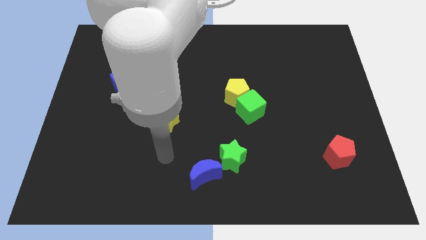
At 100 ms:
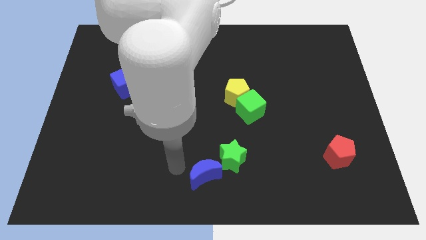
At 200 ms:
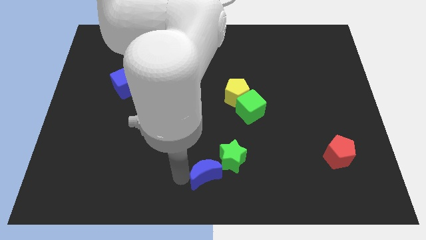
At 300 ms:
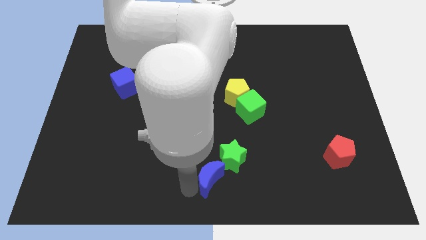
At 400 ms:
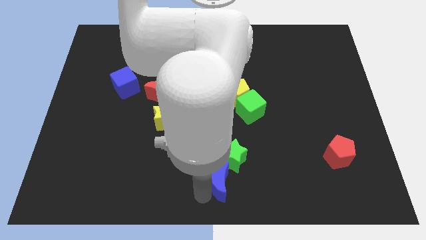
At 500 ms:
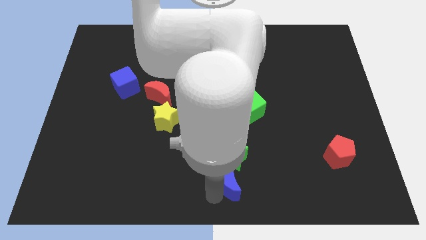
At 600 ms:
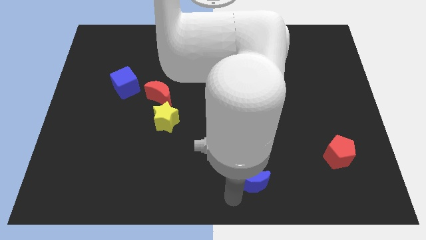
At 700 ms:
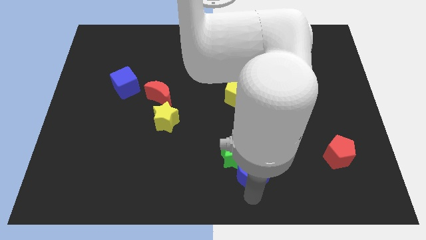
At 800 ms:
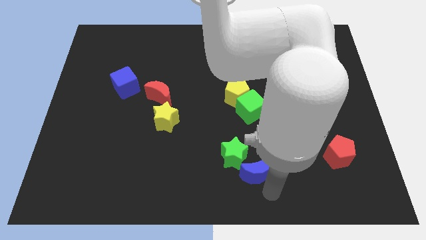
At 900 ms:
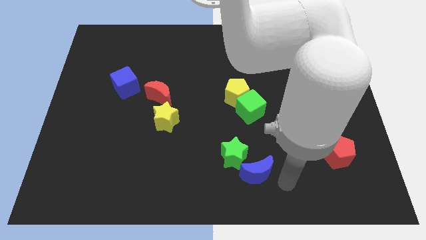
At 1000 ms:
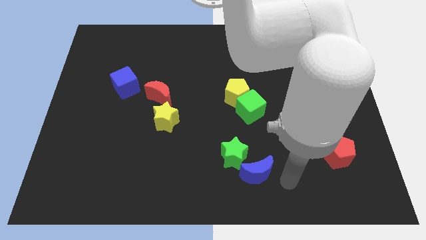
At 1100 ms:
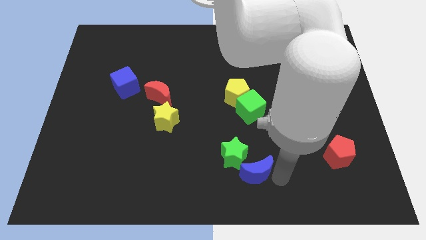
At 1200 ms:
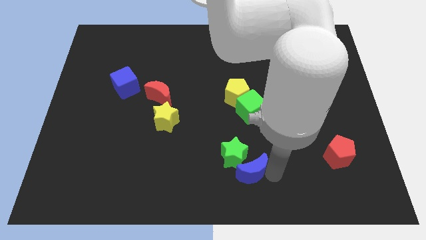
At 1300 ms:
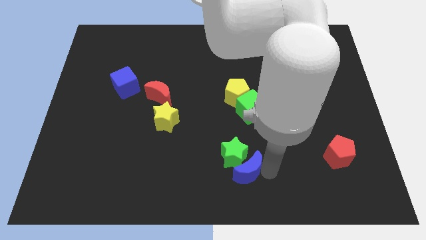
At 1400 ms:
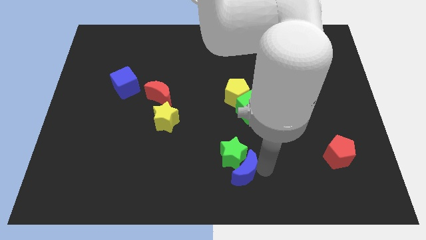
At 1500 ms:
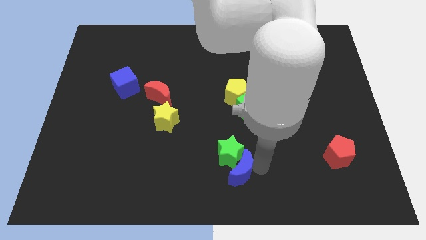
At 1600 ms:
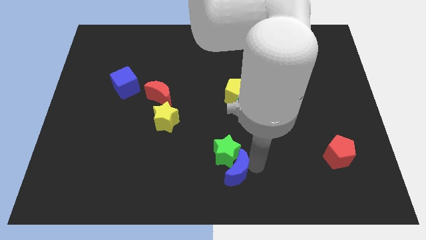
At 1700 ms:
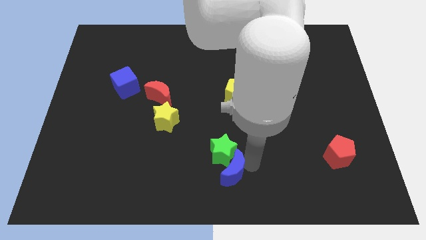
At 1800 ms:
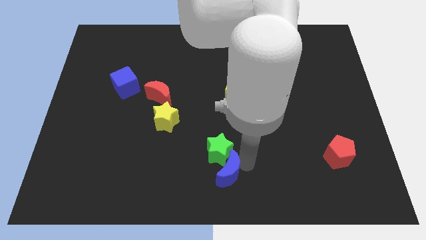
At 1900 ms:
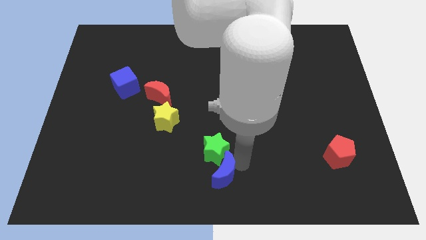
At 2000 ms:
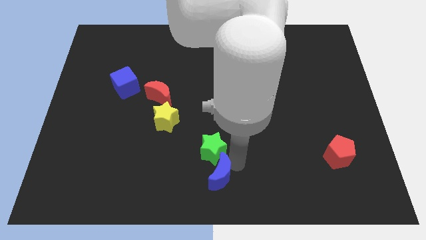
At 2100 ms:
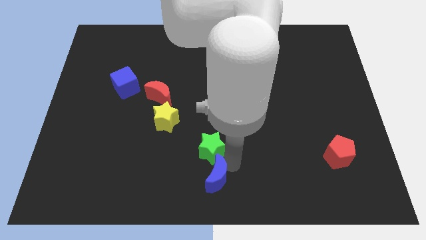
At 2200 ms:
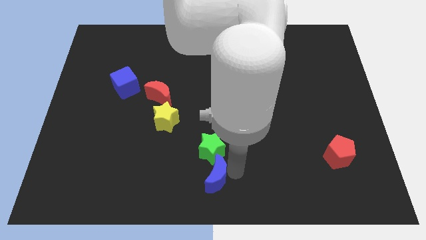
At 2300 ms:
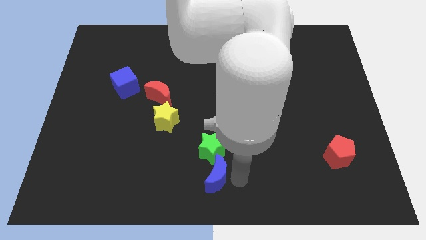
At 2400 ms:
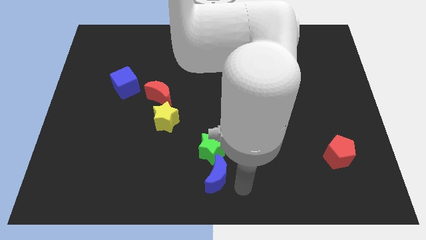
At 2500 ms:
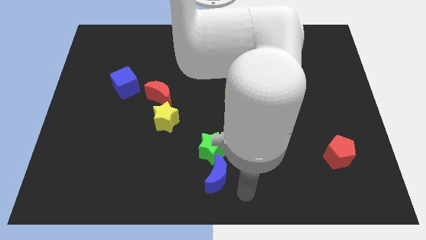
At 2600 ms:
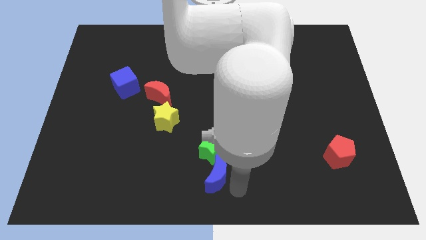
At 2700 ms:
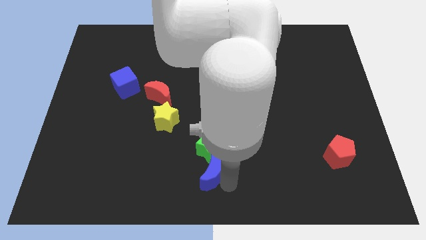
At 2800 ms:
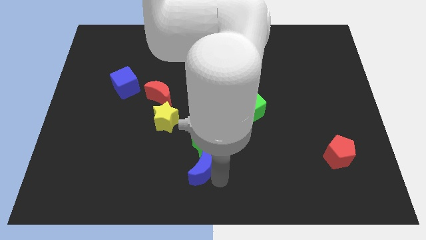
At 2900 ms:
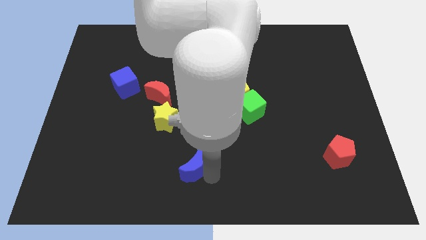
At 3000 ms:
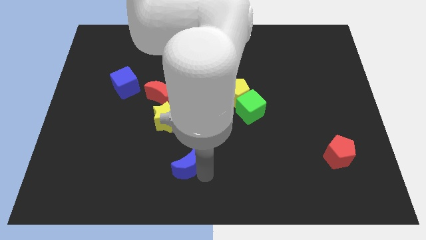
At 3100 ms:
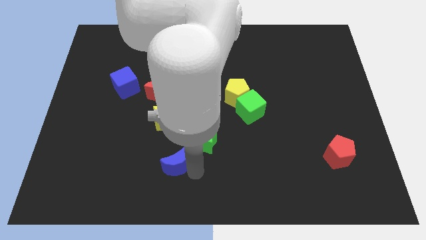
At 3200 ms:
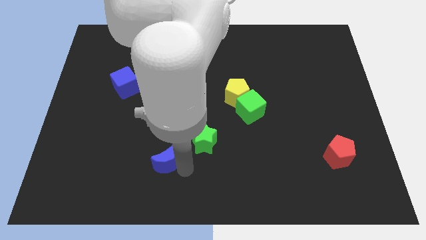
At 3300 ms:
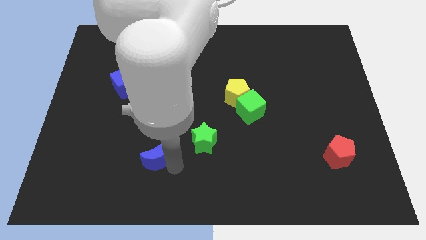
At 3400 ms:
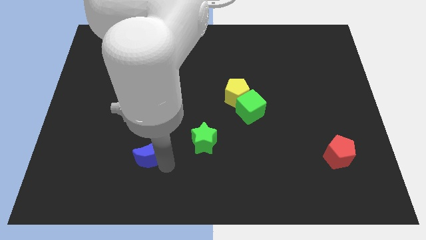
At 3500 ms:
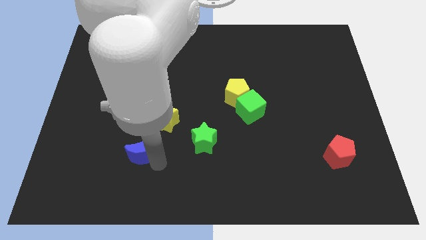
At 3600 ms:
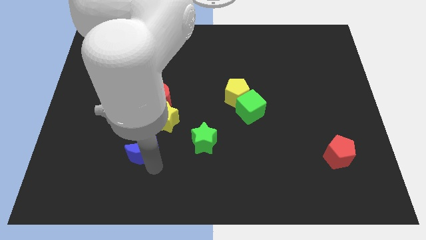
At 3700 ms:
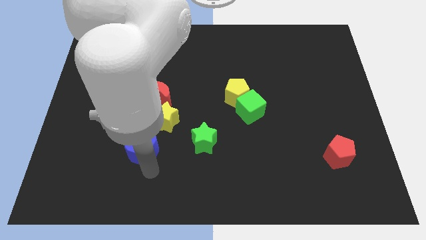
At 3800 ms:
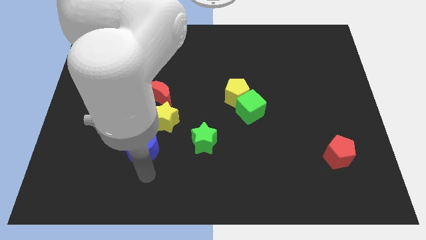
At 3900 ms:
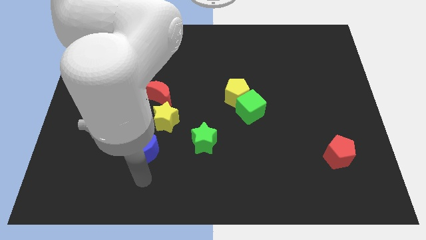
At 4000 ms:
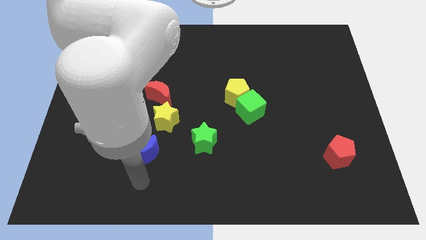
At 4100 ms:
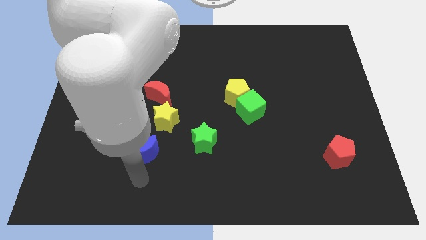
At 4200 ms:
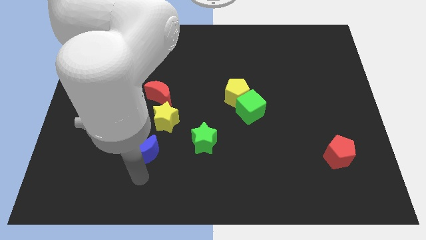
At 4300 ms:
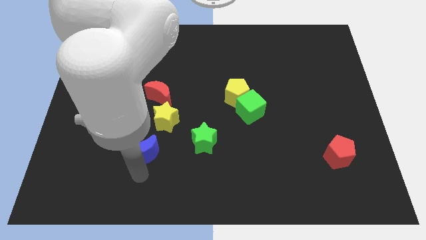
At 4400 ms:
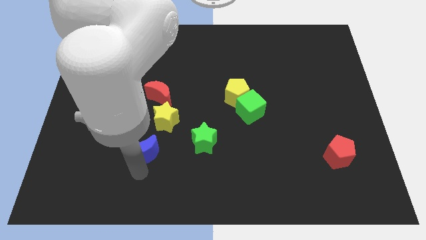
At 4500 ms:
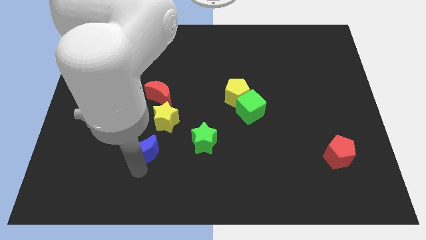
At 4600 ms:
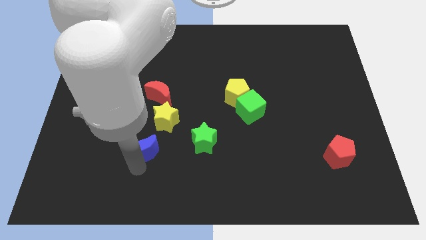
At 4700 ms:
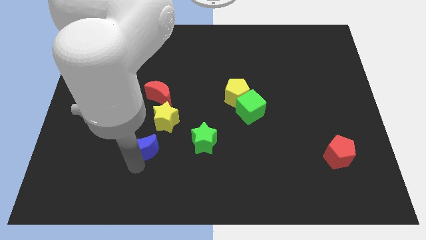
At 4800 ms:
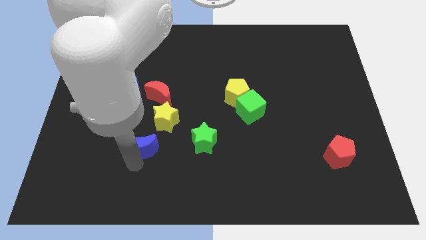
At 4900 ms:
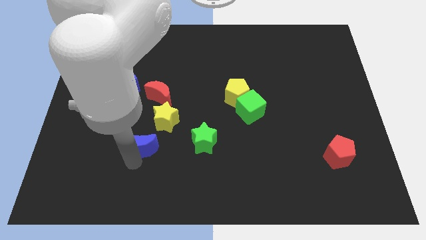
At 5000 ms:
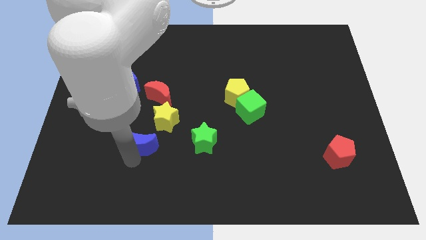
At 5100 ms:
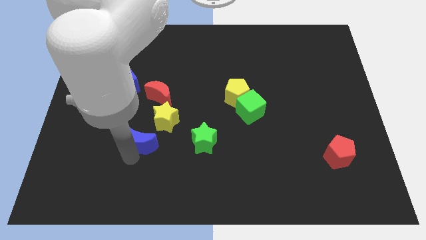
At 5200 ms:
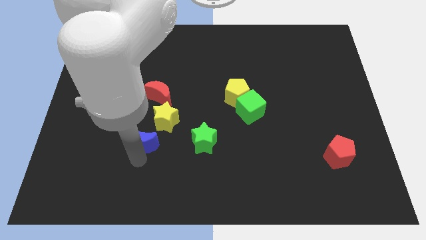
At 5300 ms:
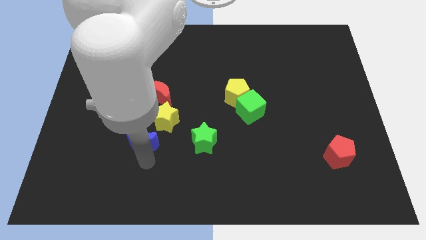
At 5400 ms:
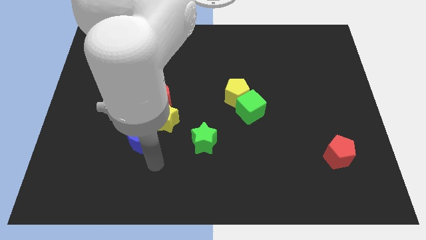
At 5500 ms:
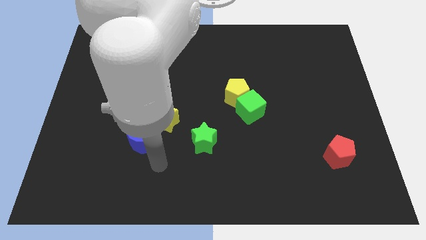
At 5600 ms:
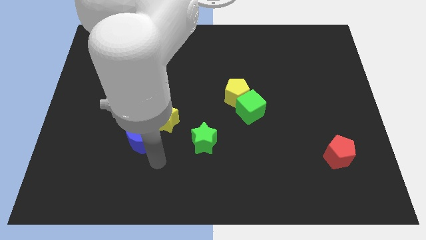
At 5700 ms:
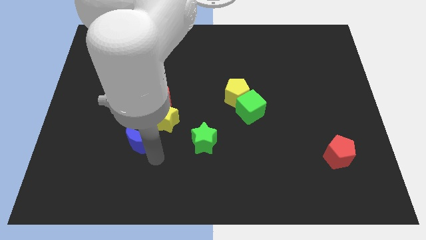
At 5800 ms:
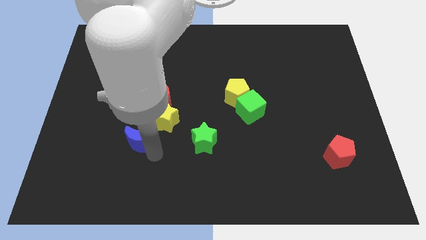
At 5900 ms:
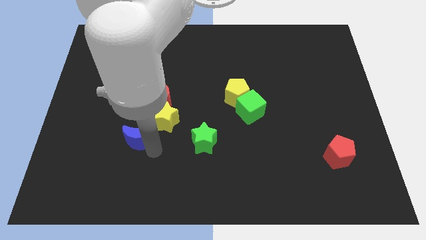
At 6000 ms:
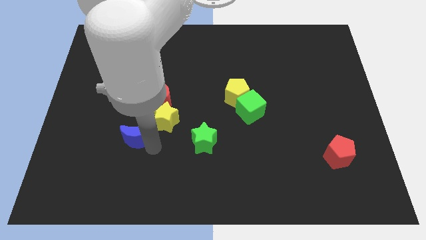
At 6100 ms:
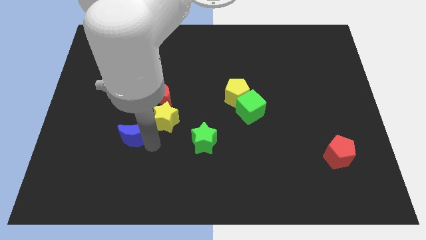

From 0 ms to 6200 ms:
move the blue moon just left of the yellow star

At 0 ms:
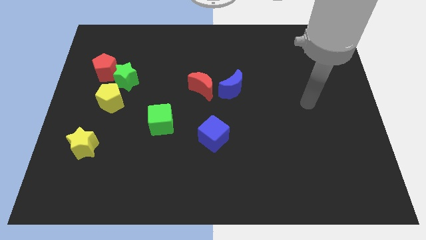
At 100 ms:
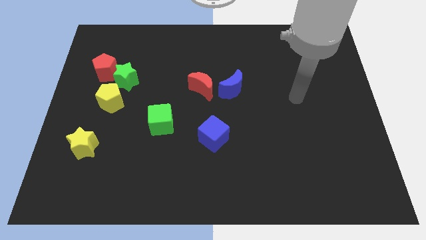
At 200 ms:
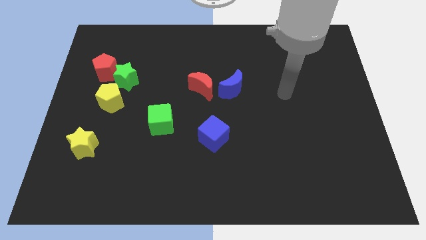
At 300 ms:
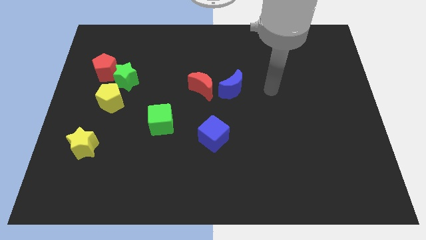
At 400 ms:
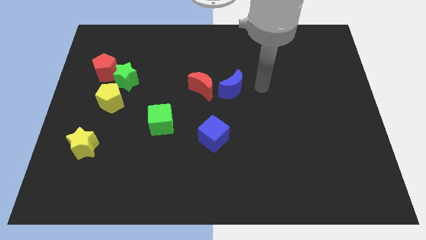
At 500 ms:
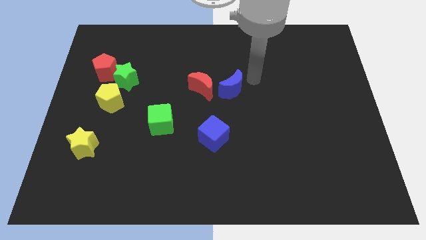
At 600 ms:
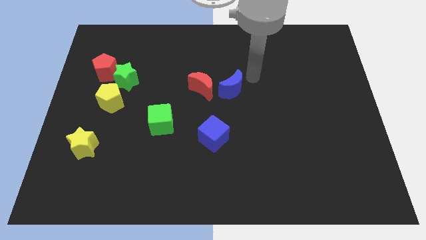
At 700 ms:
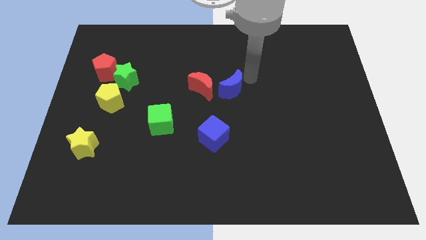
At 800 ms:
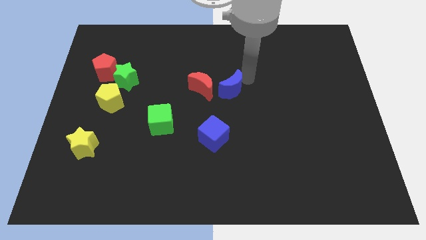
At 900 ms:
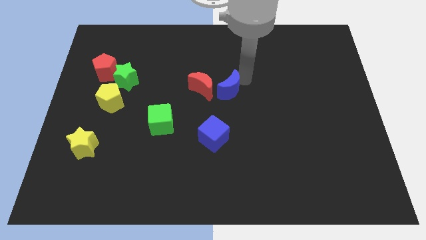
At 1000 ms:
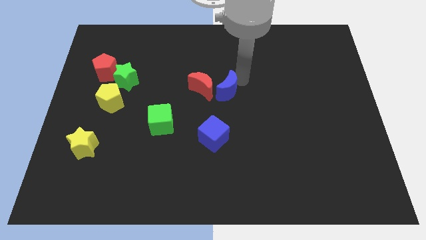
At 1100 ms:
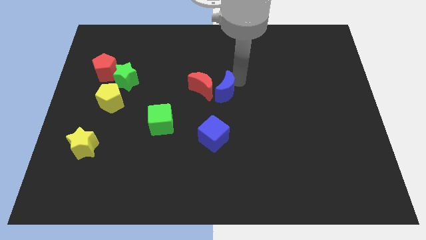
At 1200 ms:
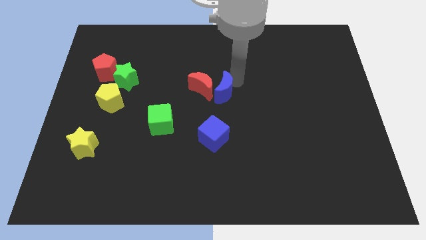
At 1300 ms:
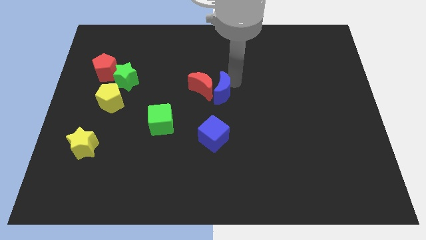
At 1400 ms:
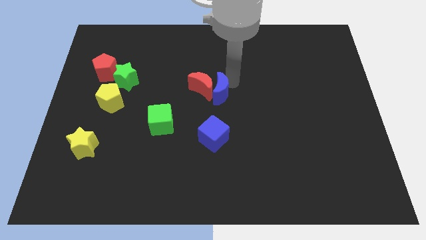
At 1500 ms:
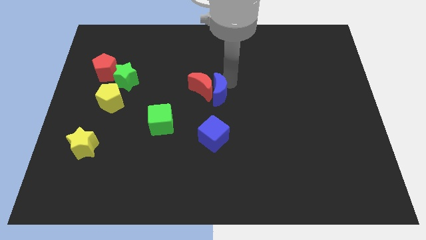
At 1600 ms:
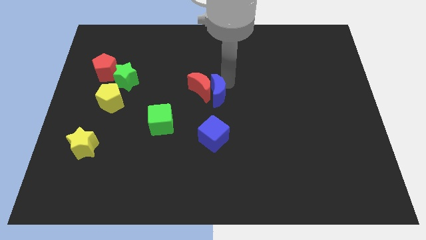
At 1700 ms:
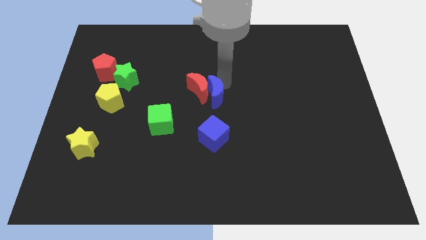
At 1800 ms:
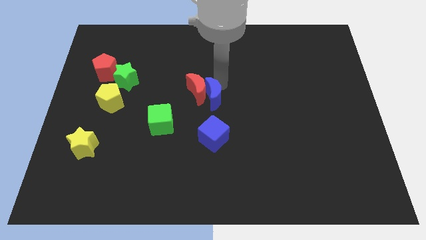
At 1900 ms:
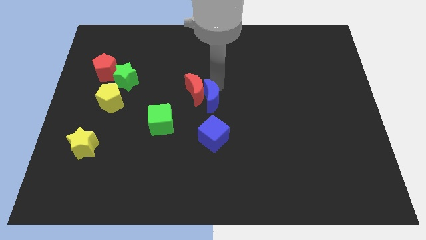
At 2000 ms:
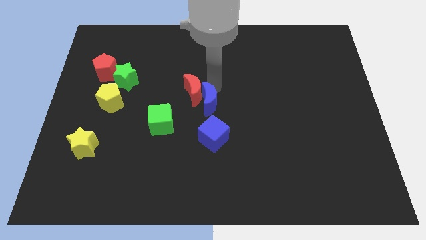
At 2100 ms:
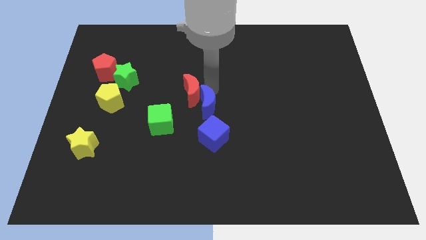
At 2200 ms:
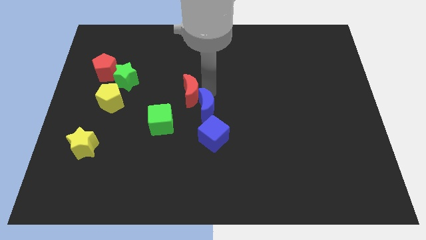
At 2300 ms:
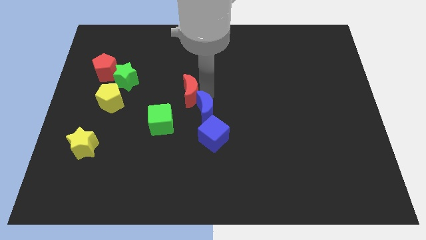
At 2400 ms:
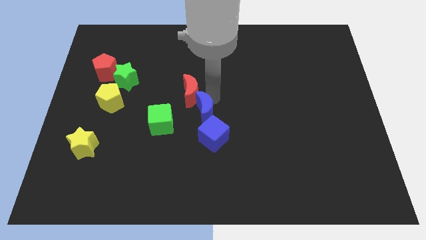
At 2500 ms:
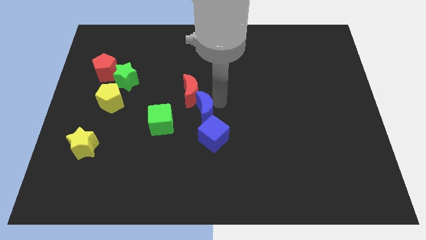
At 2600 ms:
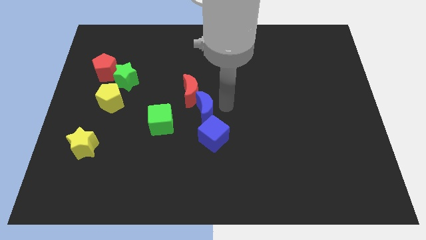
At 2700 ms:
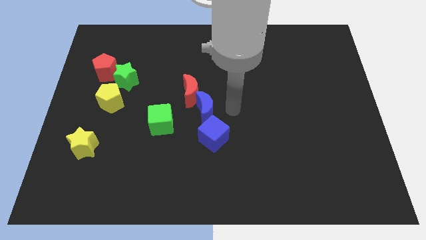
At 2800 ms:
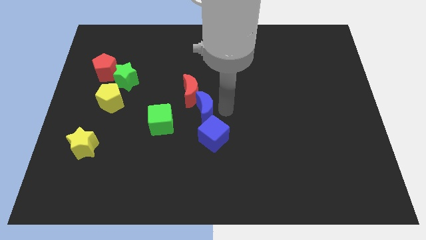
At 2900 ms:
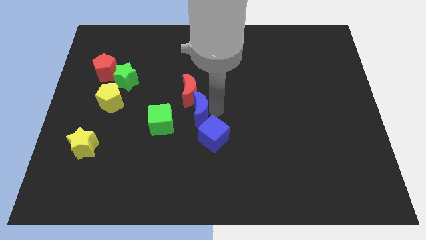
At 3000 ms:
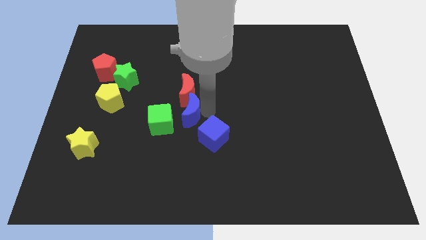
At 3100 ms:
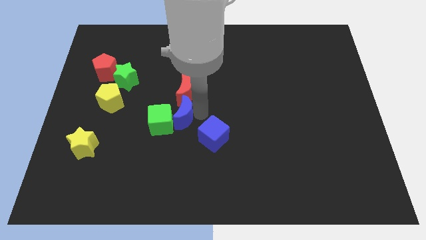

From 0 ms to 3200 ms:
slide the blue moon to the bottom left of the red moon
